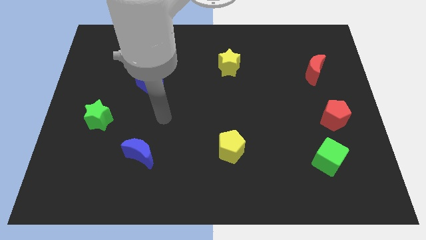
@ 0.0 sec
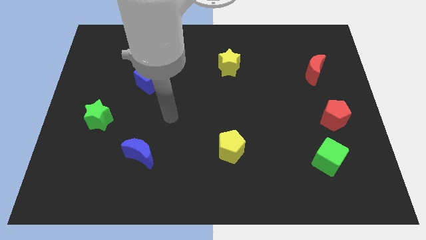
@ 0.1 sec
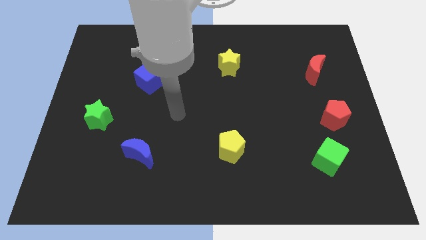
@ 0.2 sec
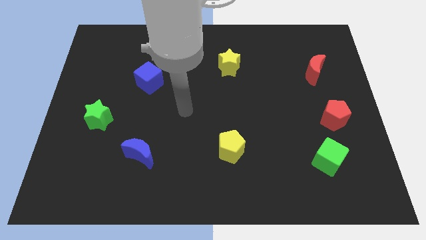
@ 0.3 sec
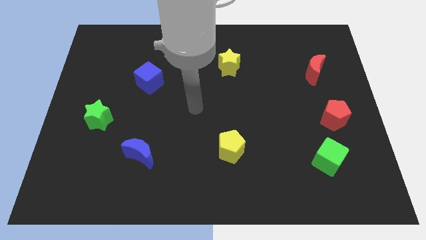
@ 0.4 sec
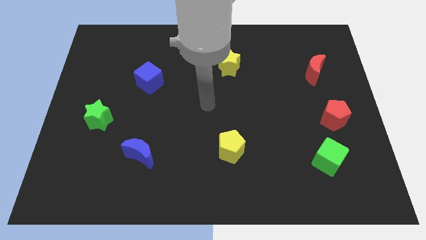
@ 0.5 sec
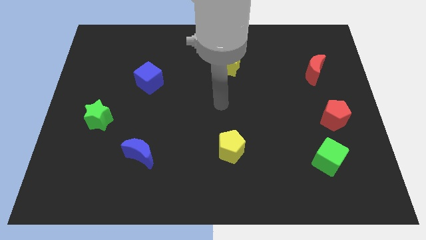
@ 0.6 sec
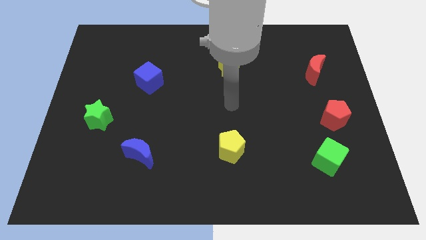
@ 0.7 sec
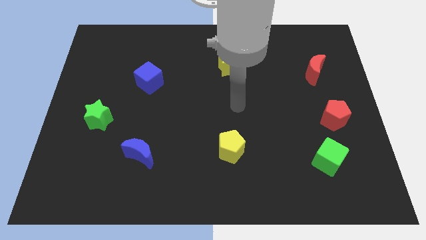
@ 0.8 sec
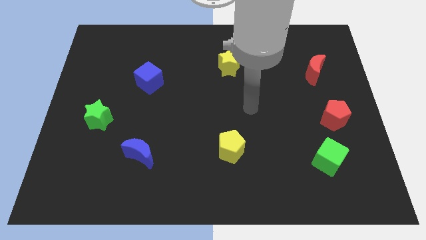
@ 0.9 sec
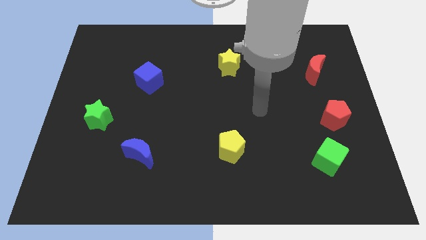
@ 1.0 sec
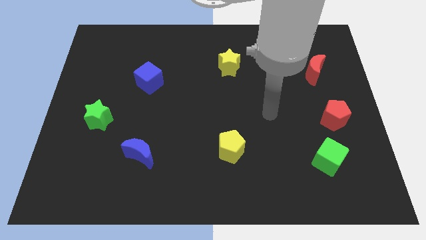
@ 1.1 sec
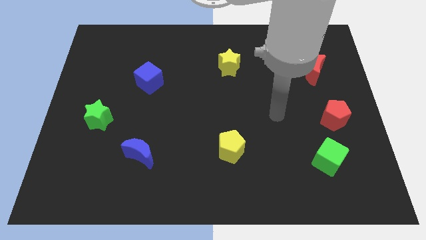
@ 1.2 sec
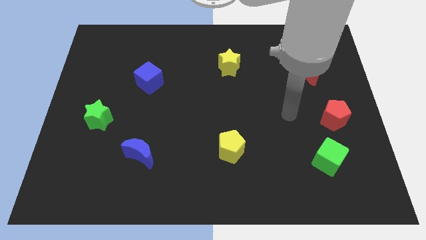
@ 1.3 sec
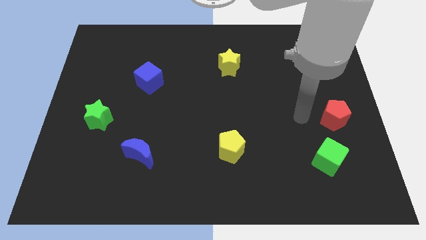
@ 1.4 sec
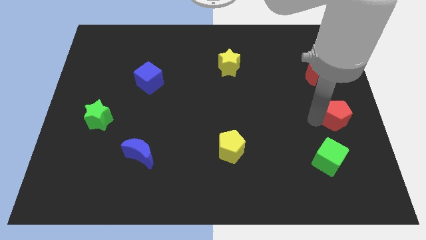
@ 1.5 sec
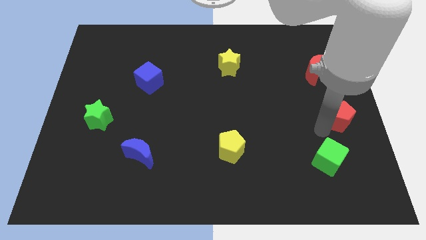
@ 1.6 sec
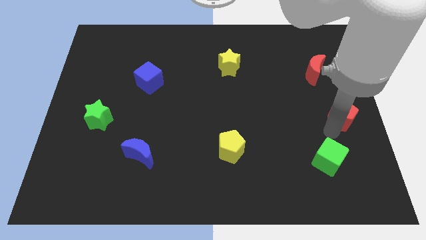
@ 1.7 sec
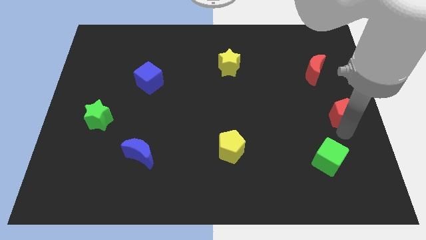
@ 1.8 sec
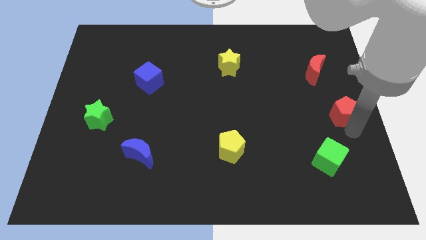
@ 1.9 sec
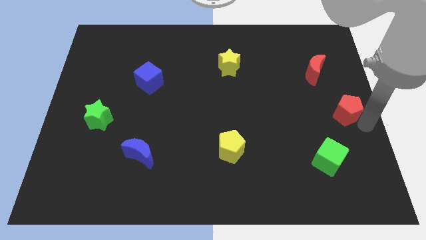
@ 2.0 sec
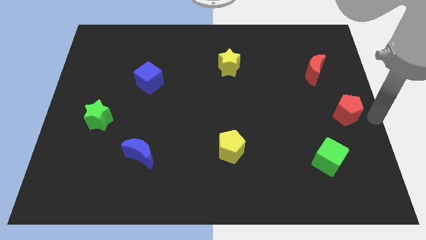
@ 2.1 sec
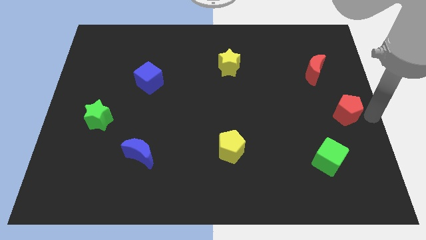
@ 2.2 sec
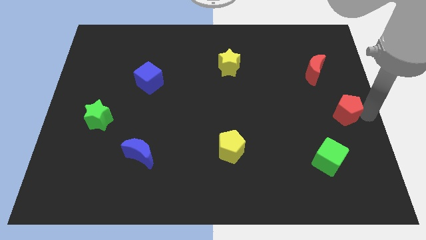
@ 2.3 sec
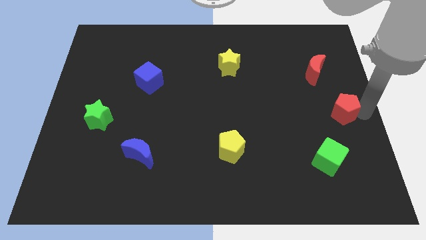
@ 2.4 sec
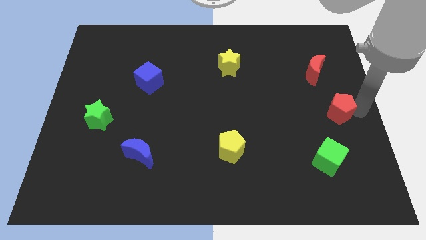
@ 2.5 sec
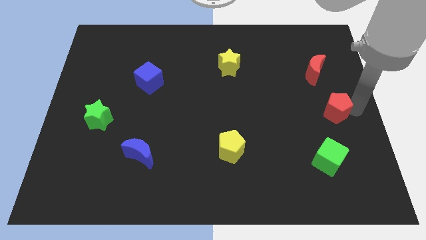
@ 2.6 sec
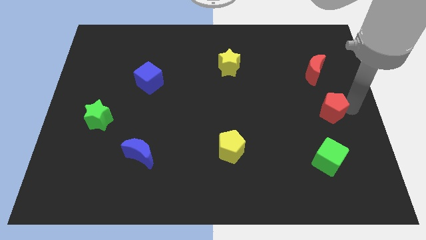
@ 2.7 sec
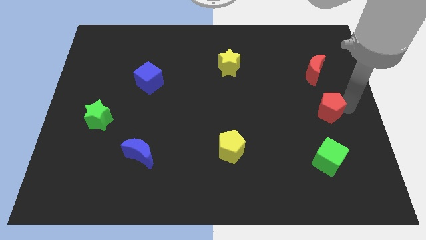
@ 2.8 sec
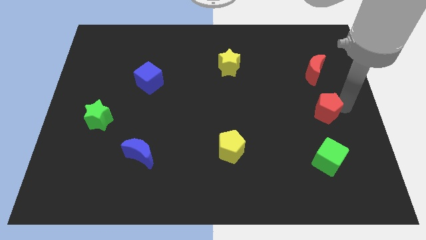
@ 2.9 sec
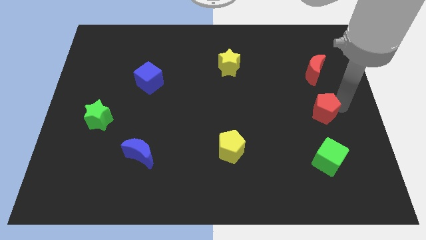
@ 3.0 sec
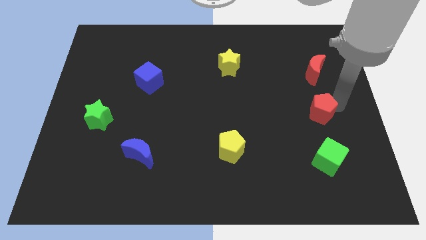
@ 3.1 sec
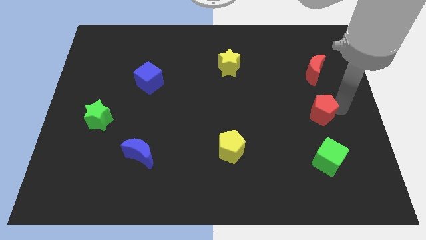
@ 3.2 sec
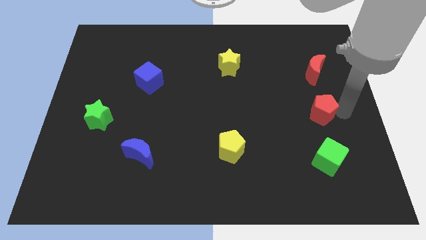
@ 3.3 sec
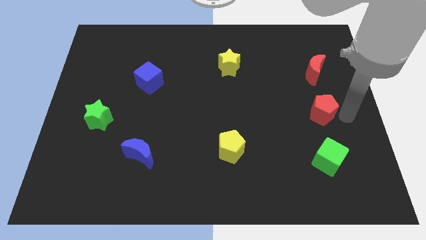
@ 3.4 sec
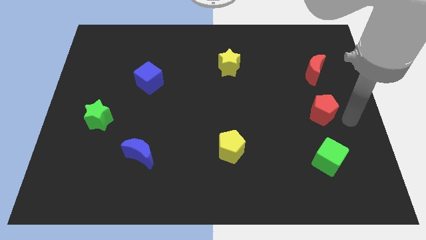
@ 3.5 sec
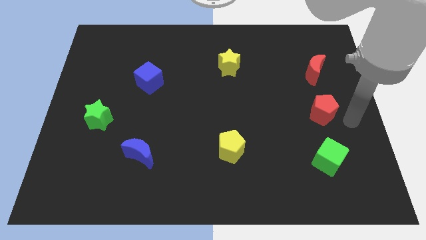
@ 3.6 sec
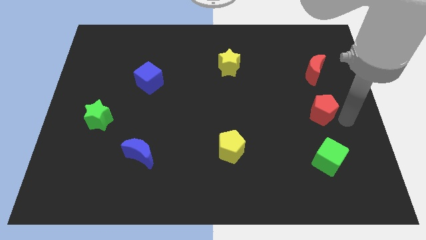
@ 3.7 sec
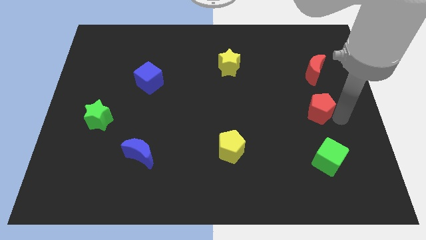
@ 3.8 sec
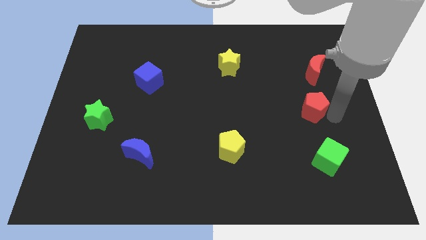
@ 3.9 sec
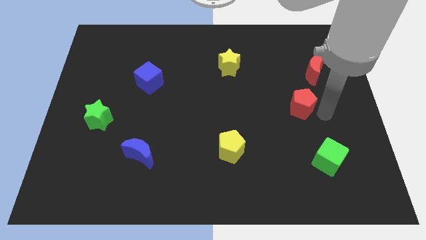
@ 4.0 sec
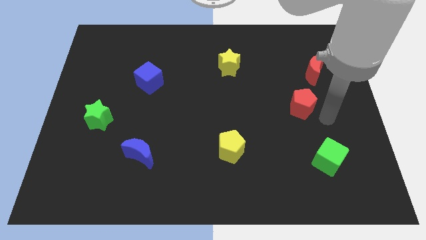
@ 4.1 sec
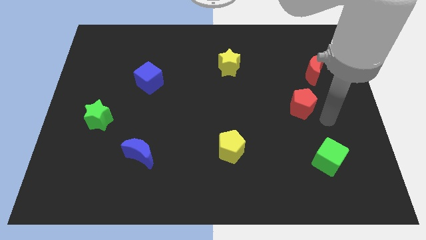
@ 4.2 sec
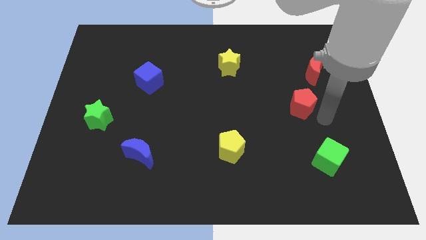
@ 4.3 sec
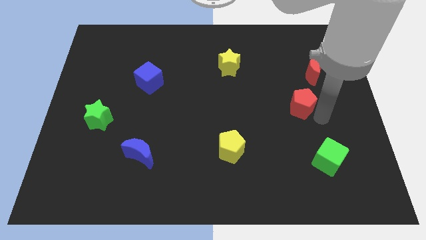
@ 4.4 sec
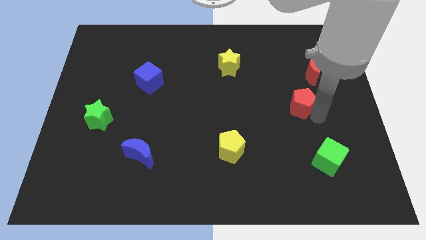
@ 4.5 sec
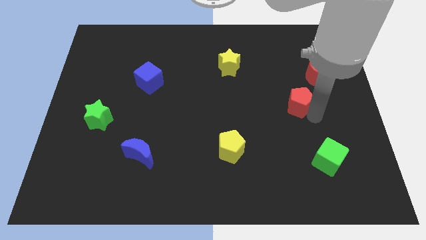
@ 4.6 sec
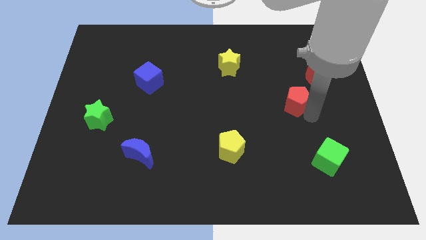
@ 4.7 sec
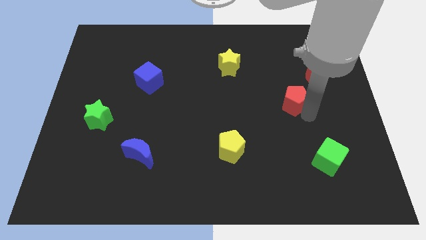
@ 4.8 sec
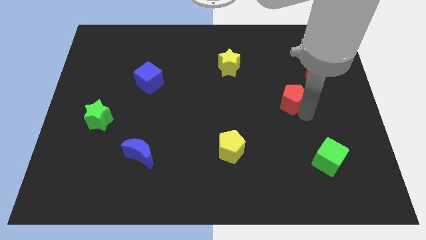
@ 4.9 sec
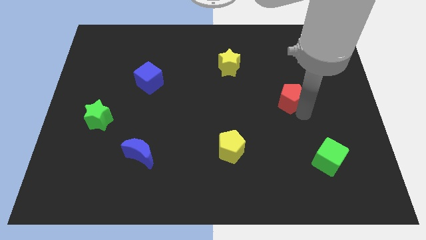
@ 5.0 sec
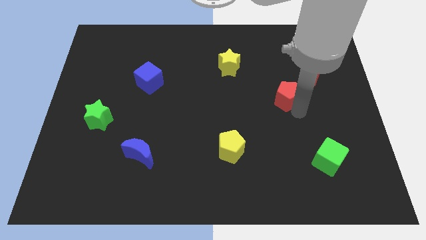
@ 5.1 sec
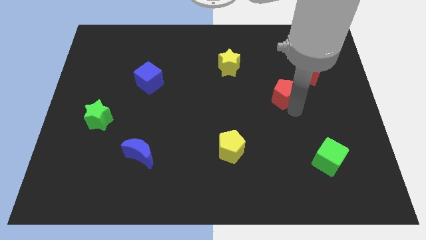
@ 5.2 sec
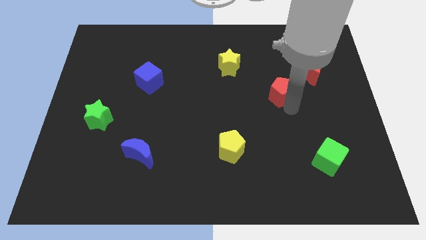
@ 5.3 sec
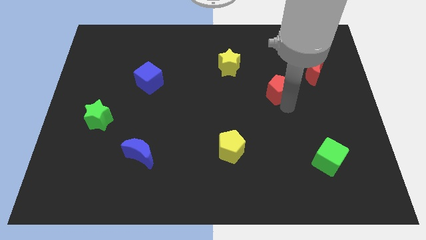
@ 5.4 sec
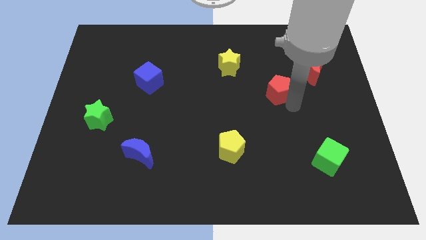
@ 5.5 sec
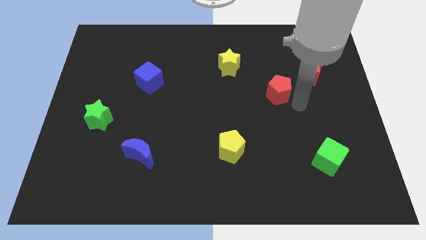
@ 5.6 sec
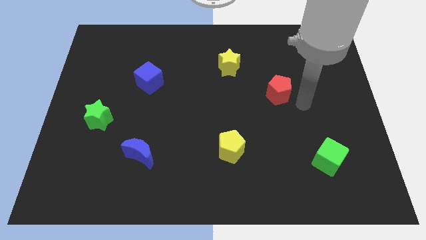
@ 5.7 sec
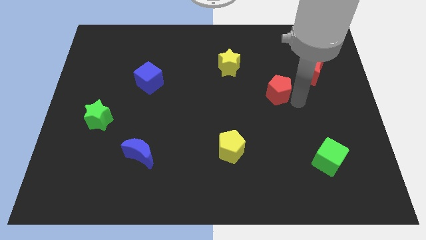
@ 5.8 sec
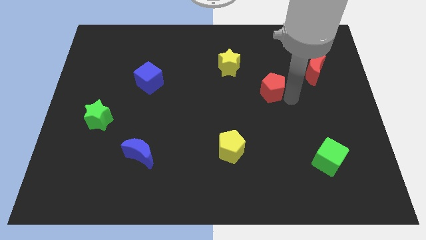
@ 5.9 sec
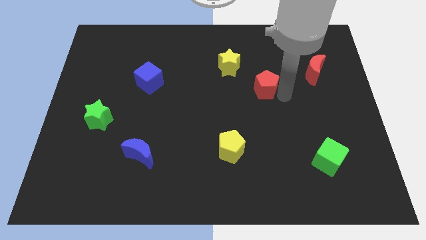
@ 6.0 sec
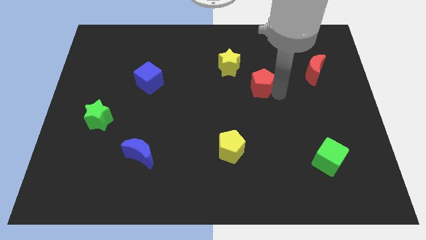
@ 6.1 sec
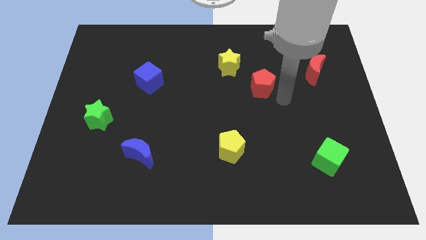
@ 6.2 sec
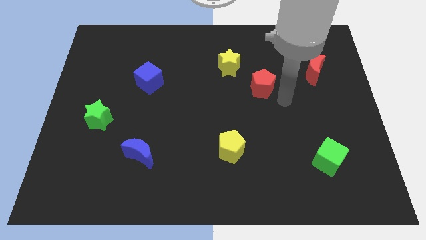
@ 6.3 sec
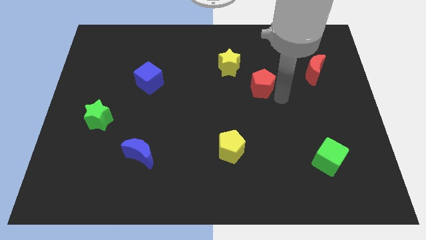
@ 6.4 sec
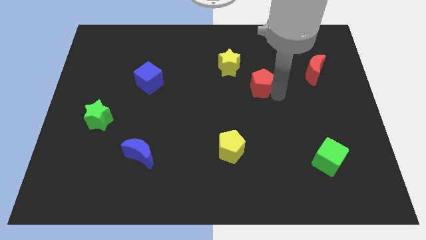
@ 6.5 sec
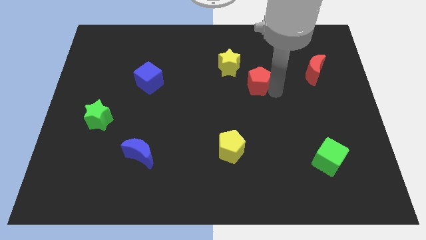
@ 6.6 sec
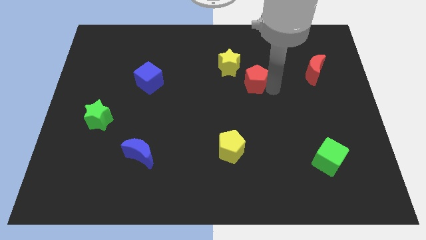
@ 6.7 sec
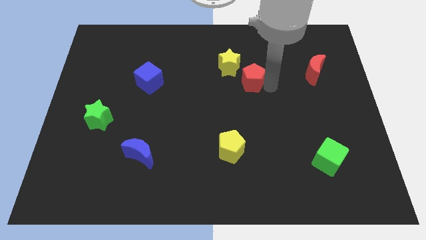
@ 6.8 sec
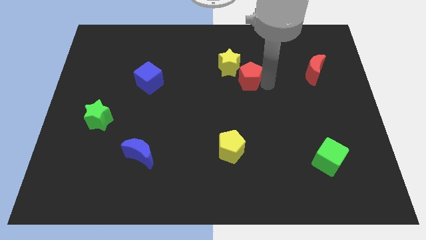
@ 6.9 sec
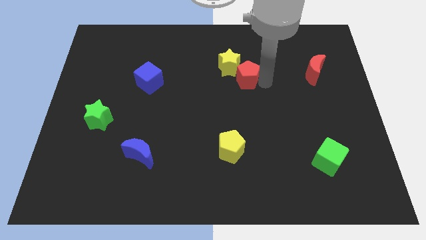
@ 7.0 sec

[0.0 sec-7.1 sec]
move the red pentagon close to the yellow star

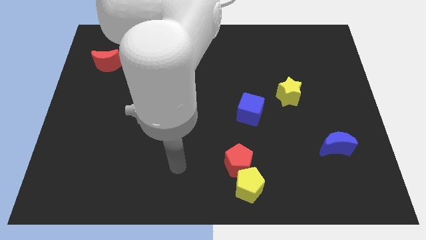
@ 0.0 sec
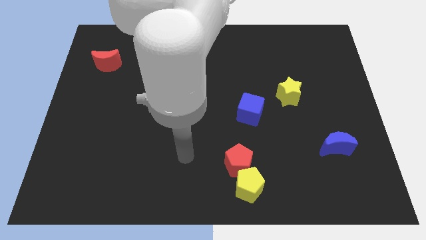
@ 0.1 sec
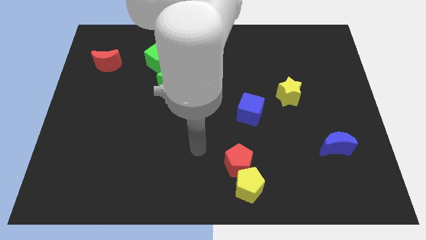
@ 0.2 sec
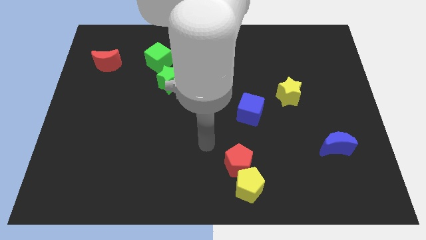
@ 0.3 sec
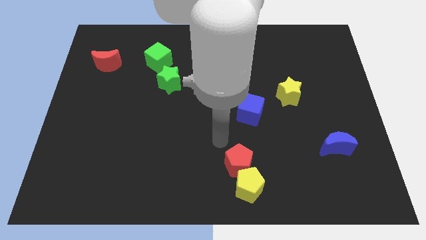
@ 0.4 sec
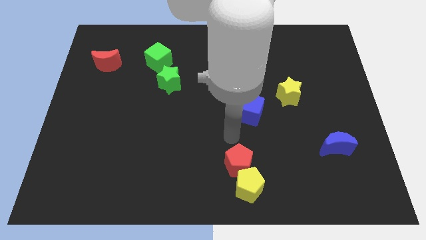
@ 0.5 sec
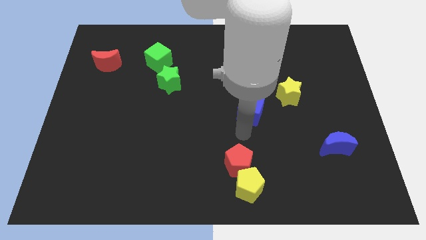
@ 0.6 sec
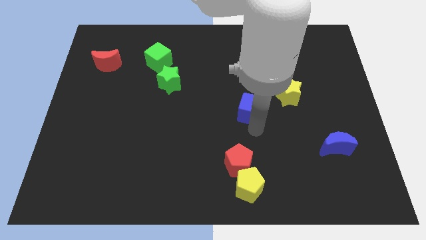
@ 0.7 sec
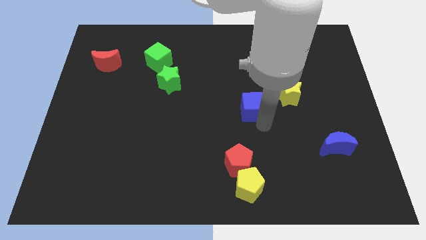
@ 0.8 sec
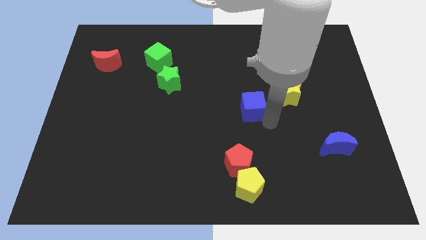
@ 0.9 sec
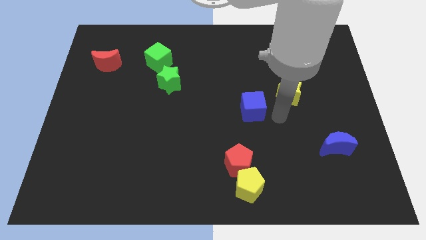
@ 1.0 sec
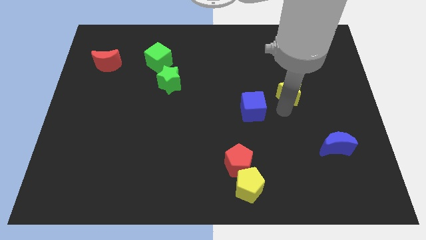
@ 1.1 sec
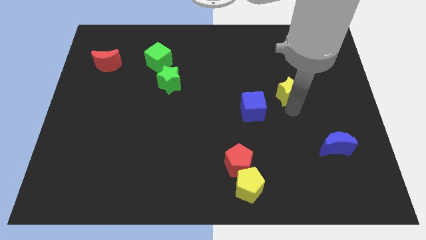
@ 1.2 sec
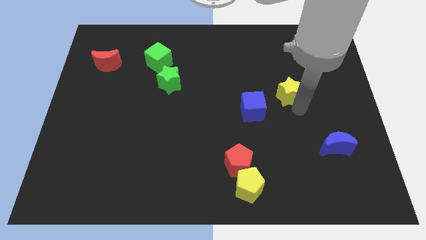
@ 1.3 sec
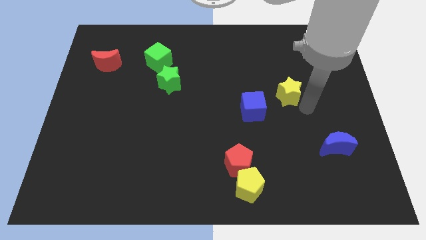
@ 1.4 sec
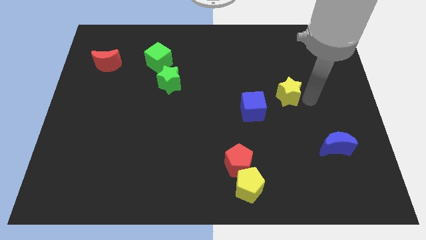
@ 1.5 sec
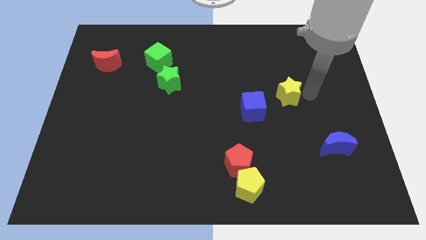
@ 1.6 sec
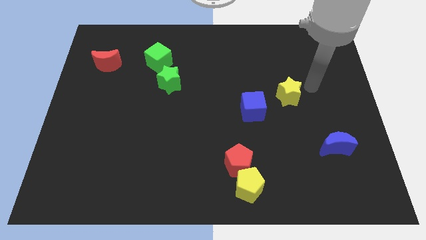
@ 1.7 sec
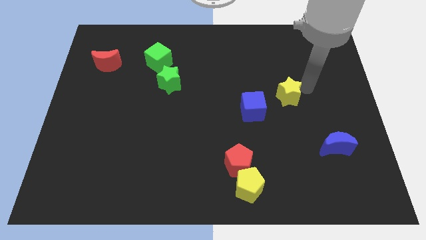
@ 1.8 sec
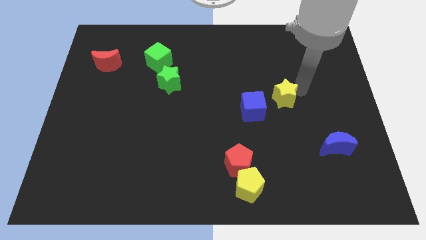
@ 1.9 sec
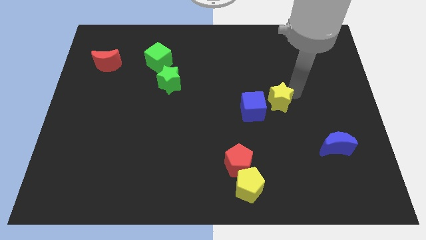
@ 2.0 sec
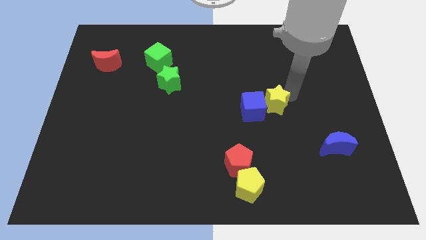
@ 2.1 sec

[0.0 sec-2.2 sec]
slide the yellow star close to the blue cube
